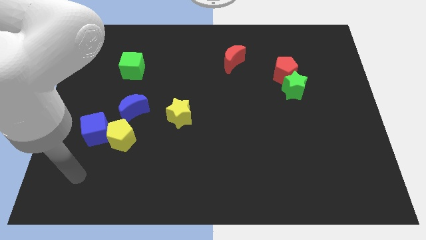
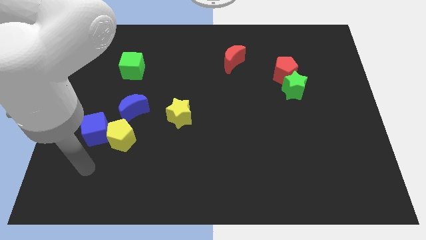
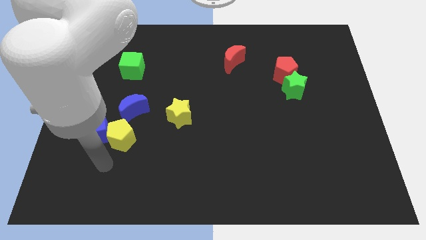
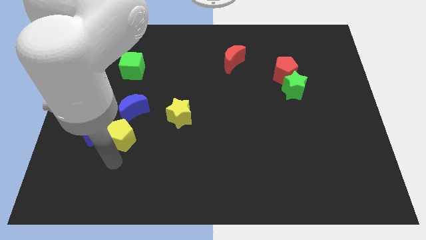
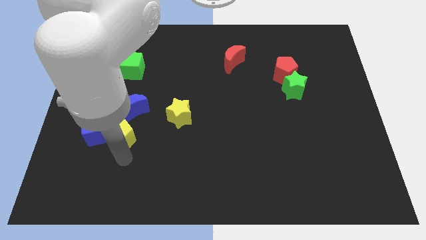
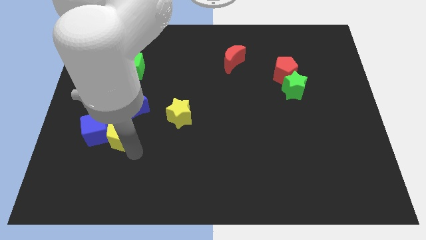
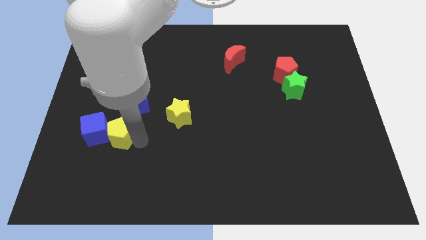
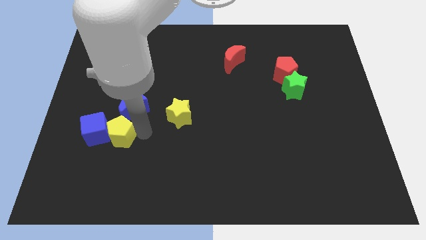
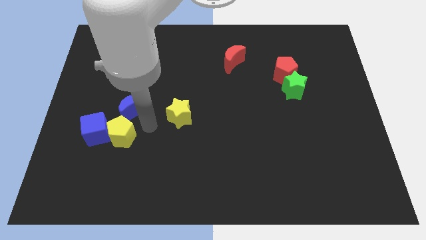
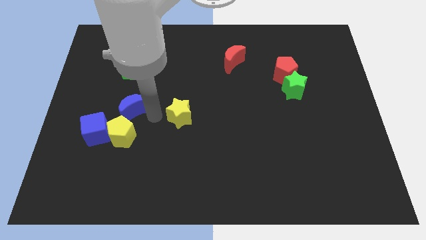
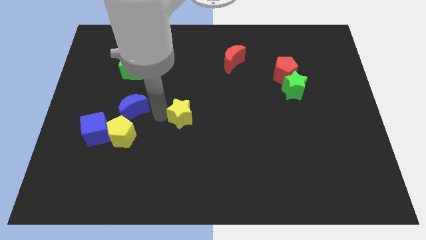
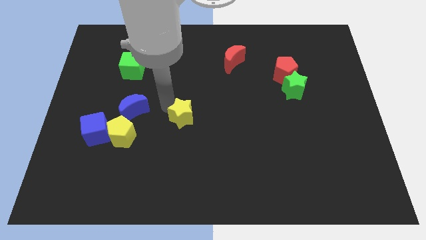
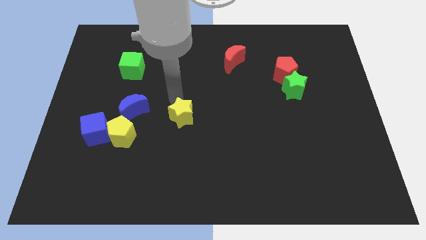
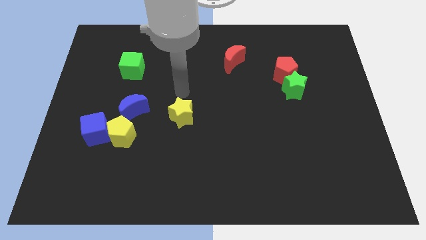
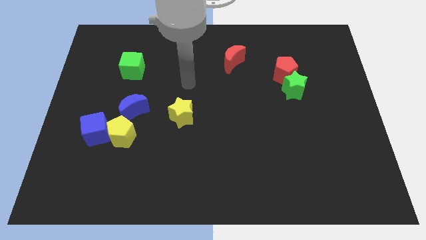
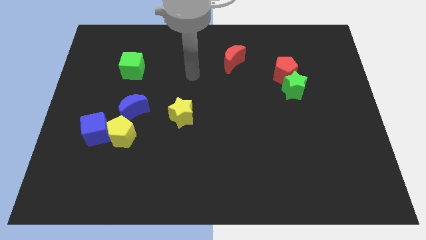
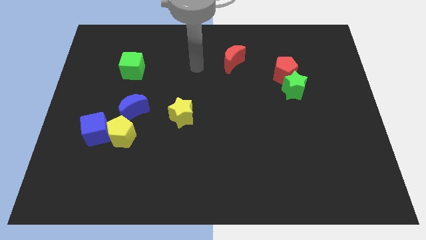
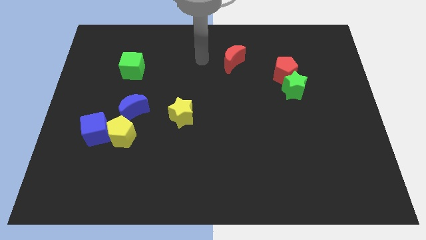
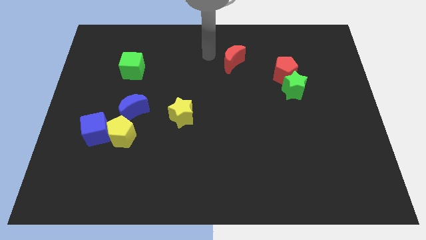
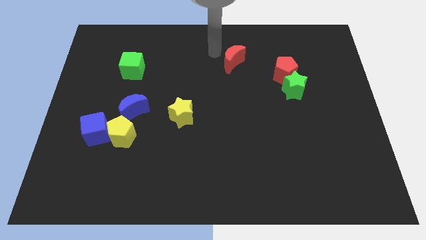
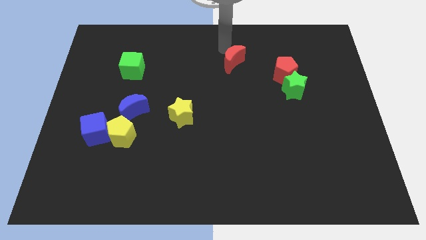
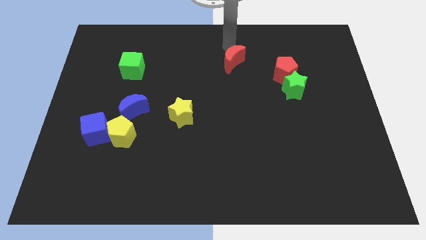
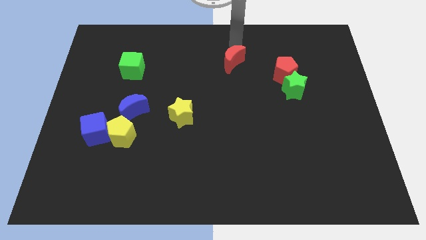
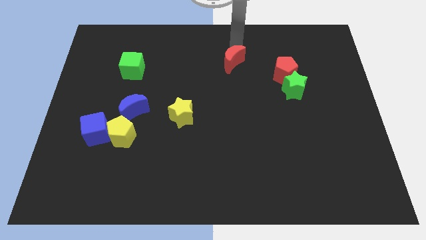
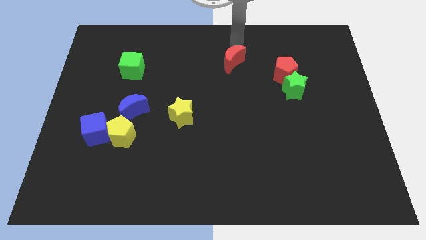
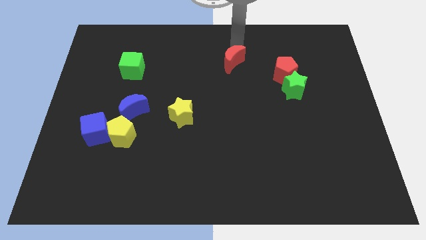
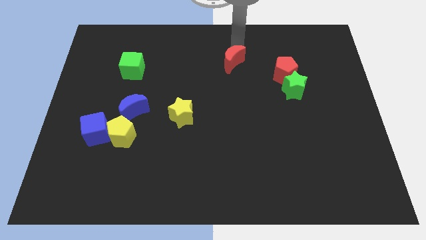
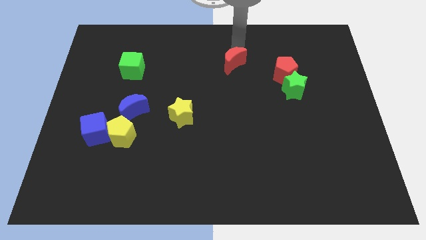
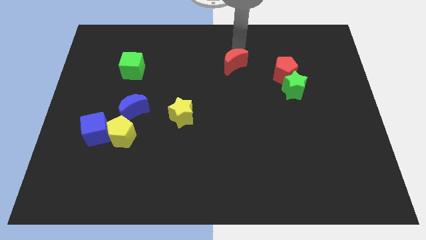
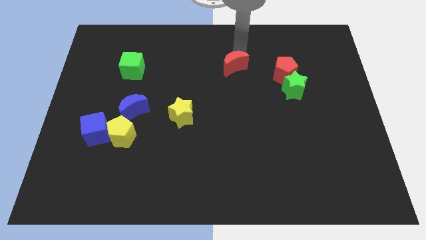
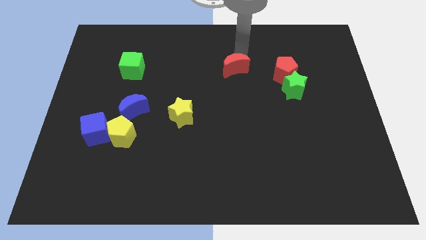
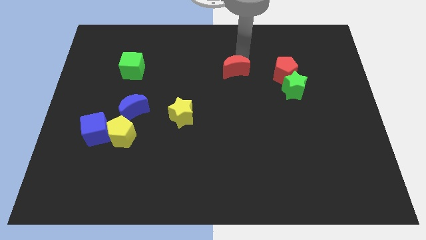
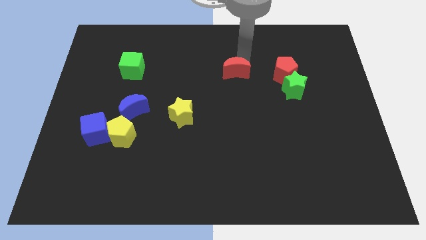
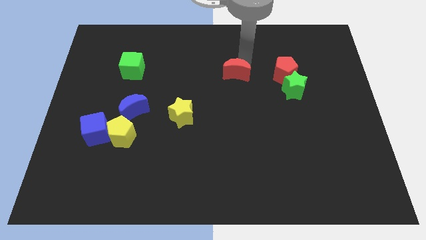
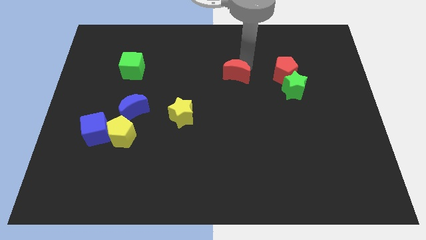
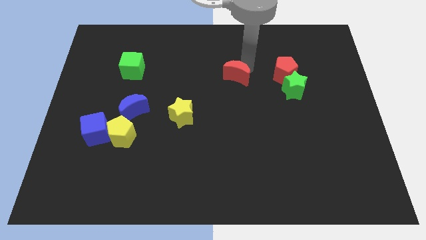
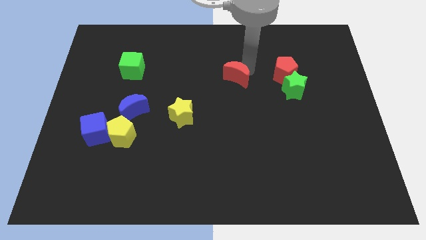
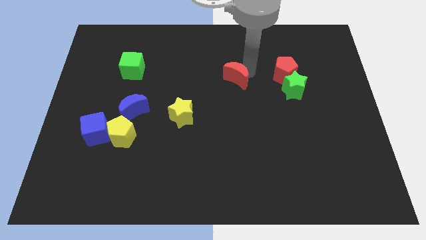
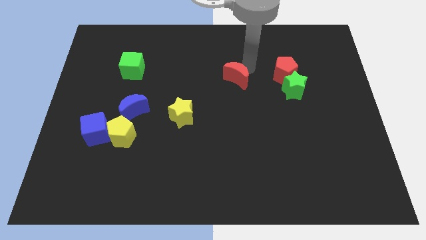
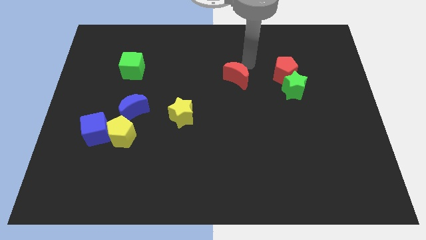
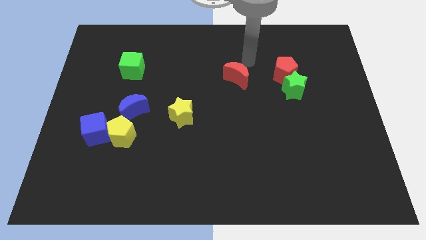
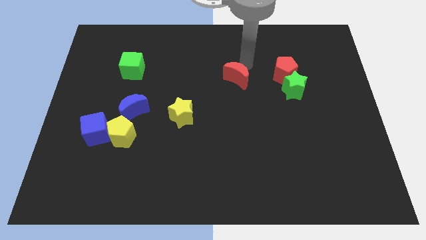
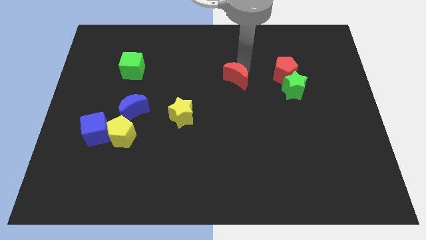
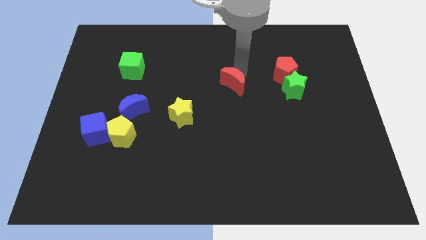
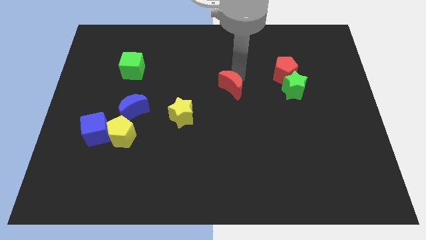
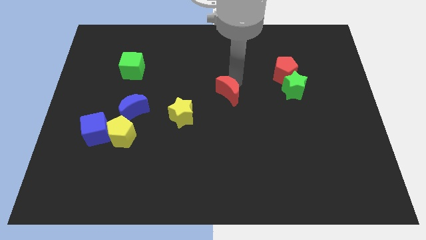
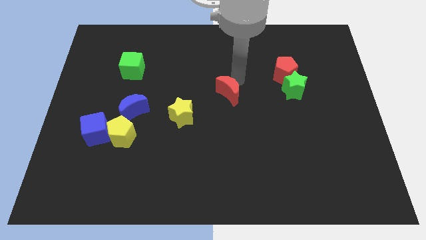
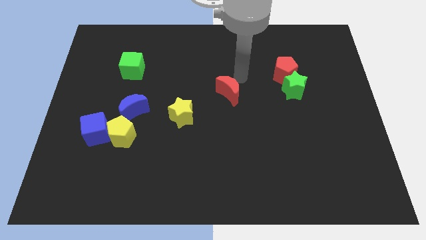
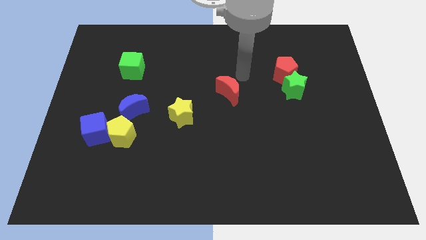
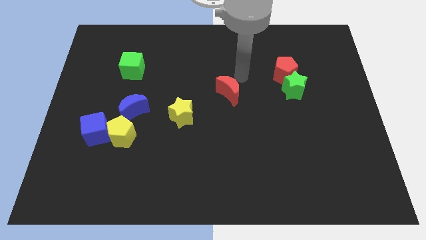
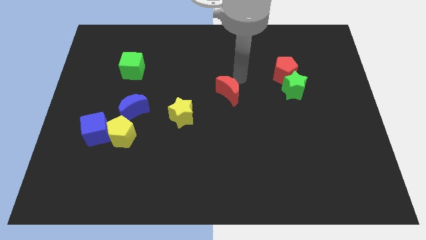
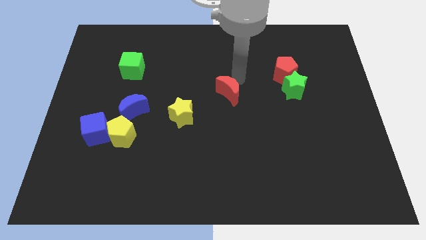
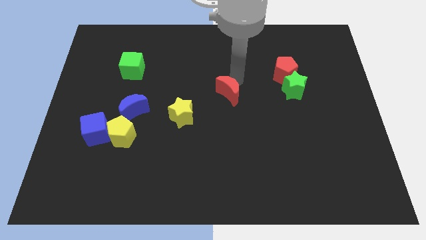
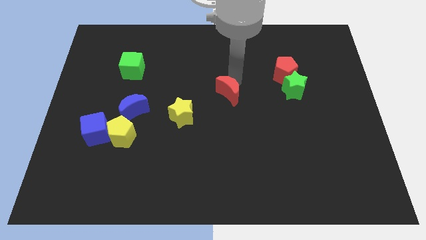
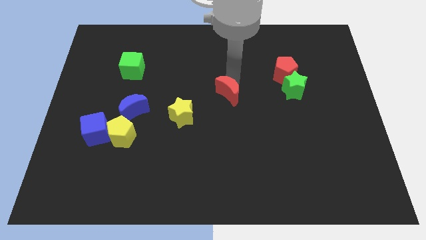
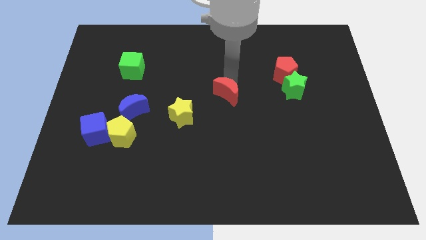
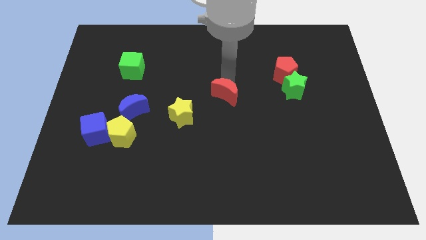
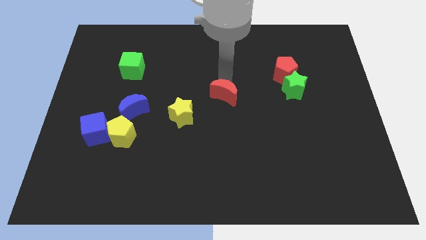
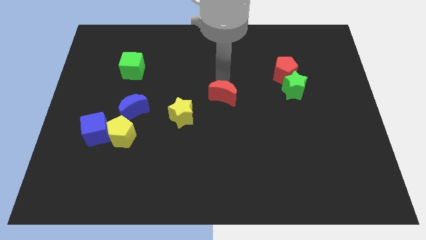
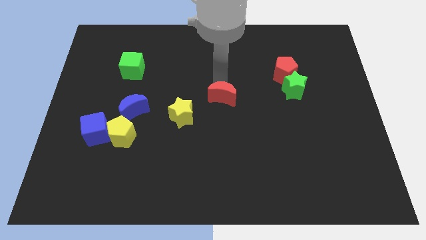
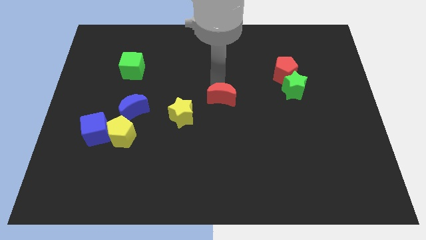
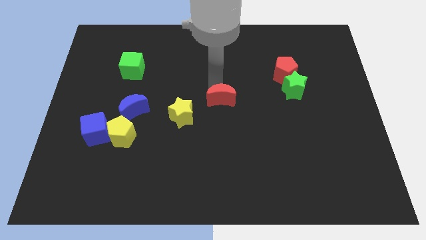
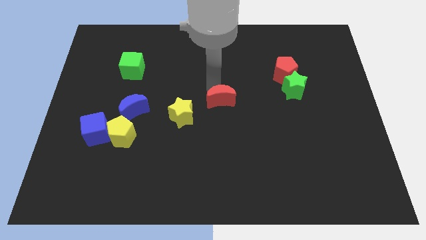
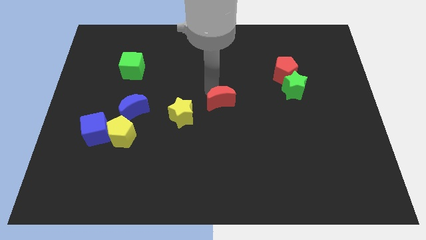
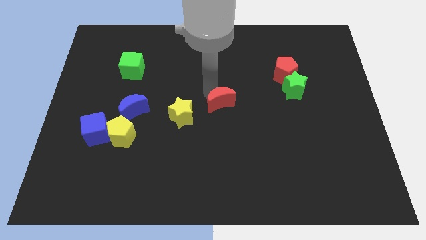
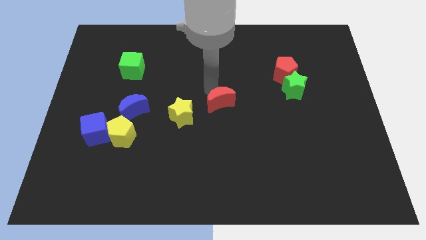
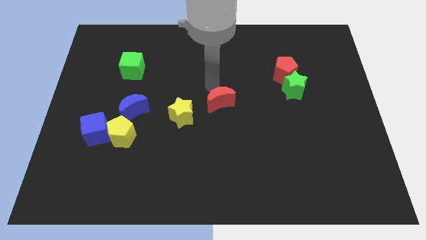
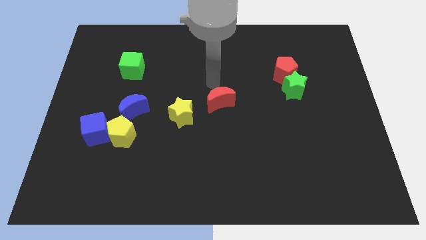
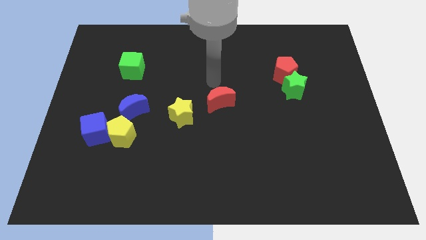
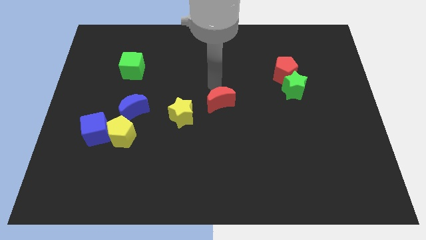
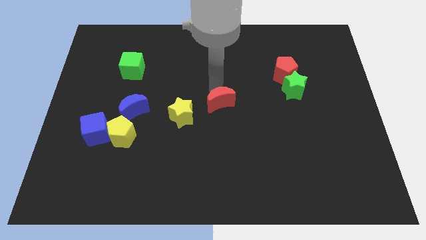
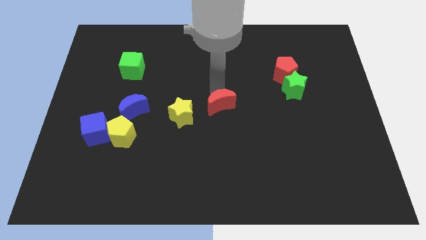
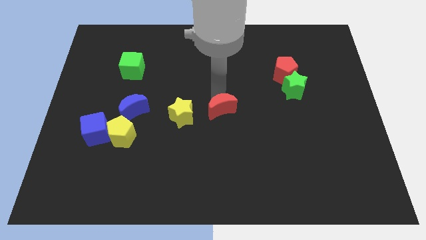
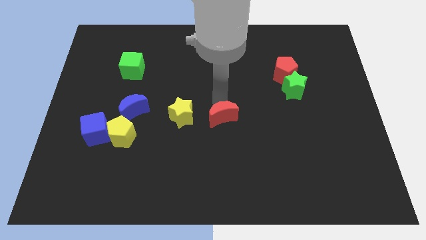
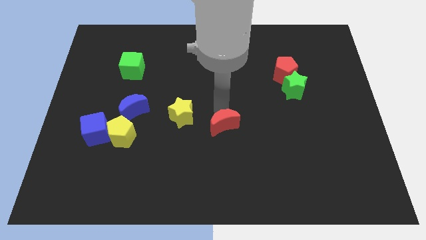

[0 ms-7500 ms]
move the red moon downwards

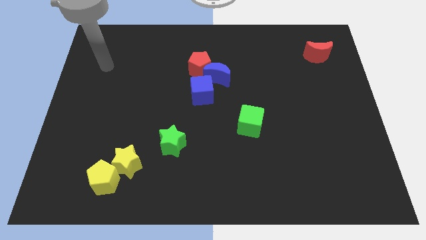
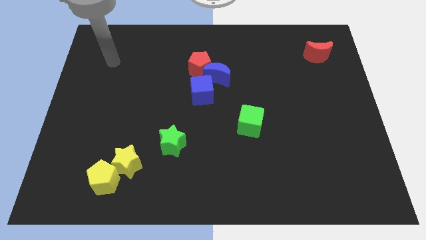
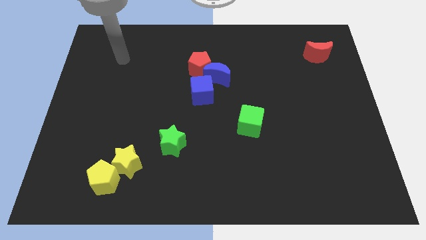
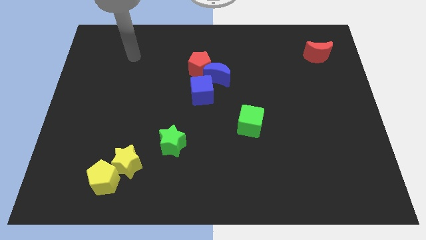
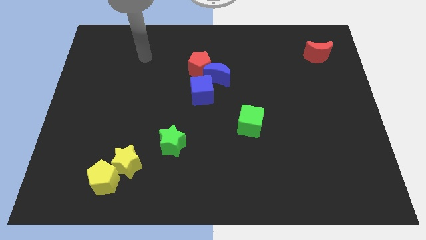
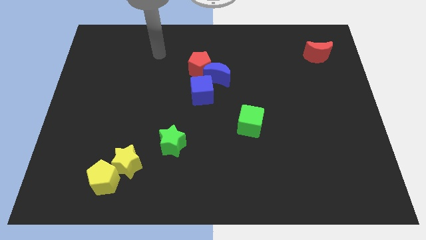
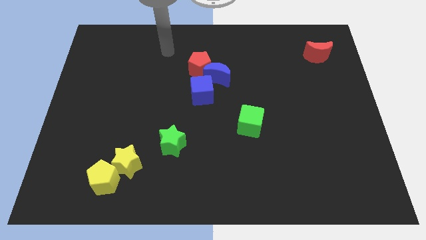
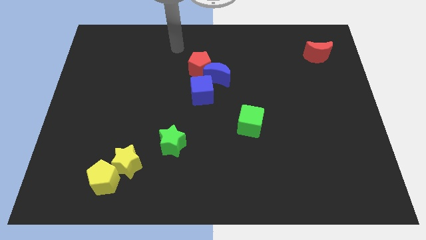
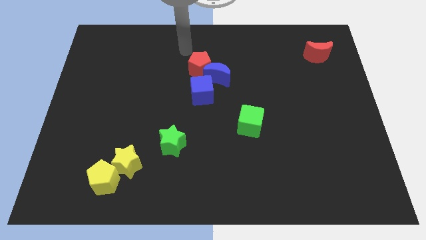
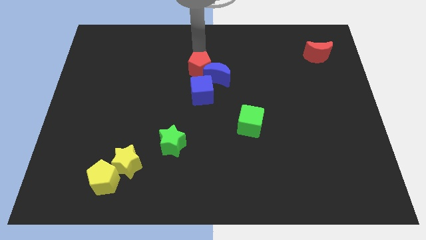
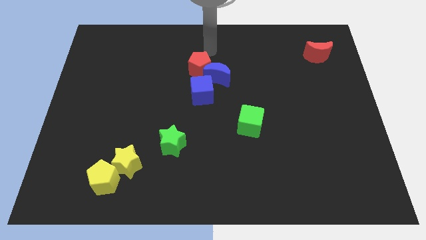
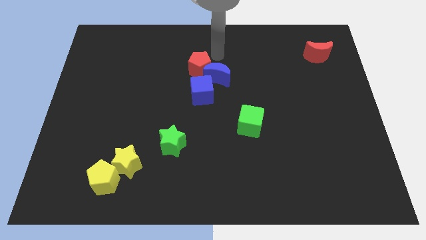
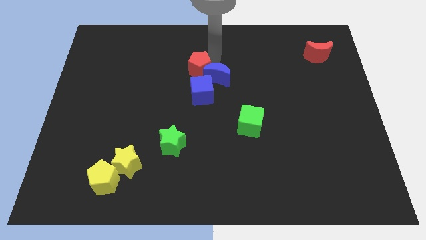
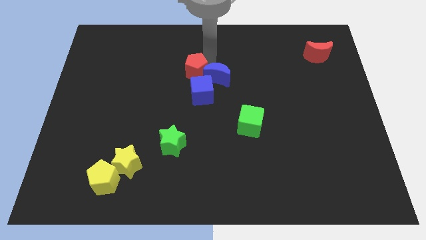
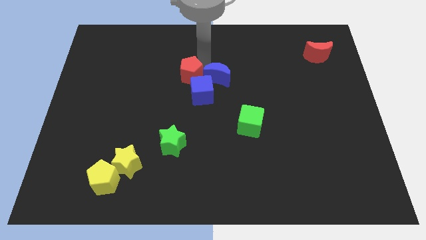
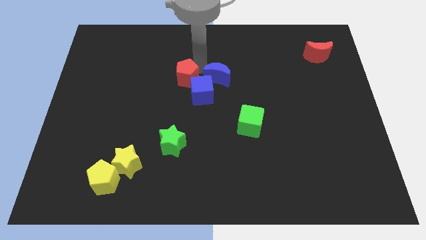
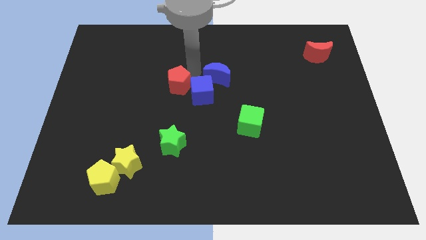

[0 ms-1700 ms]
slide the red pentagon downwards and then left a little bit
